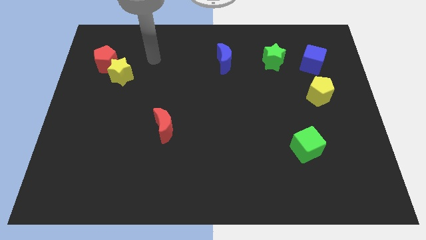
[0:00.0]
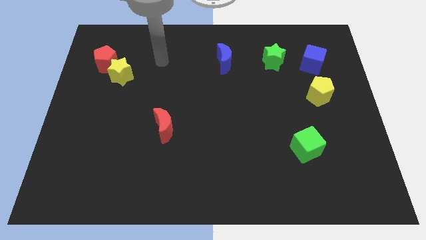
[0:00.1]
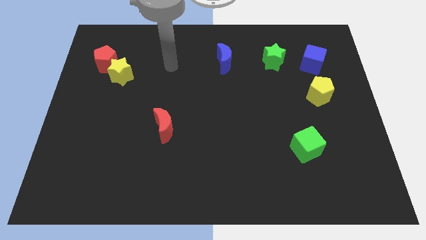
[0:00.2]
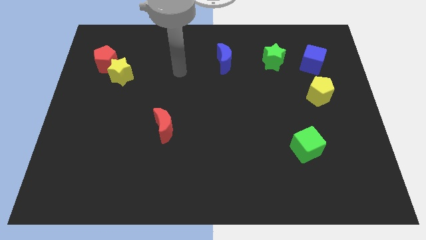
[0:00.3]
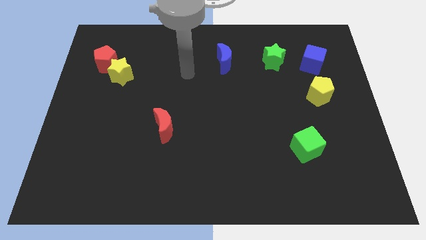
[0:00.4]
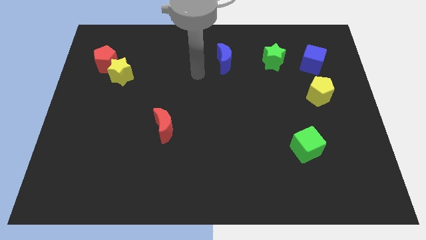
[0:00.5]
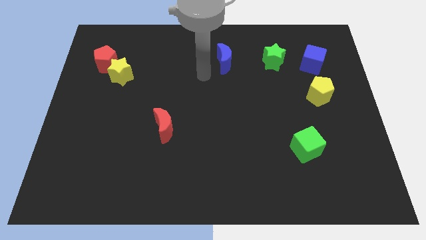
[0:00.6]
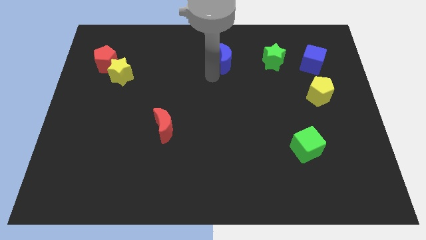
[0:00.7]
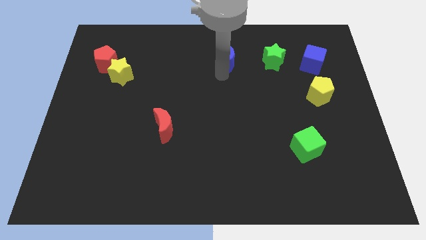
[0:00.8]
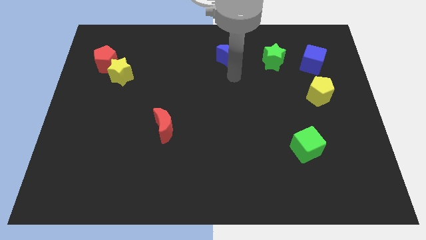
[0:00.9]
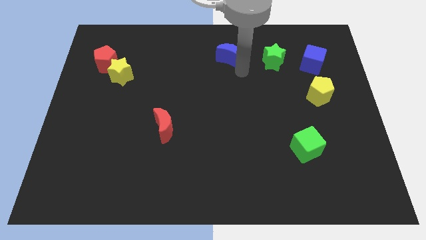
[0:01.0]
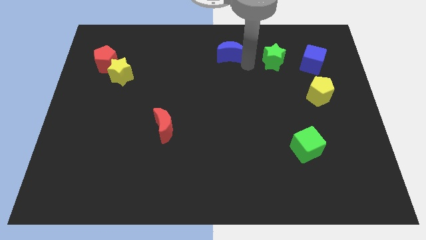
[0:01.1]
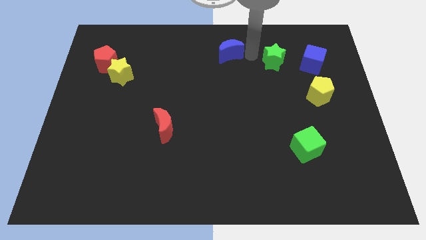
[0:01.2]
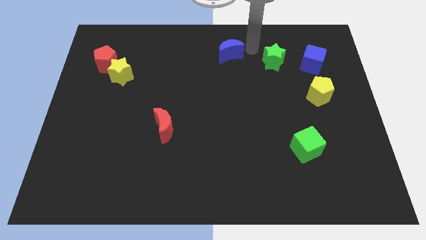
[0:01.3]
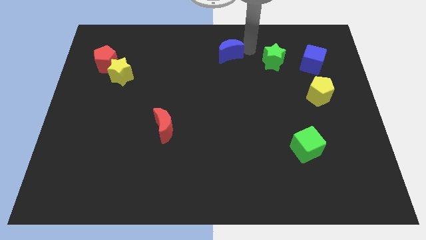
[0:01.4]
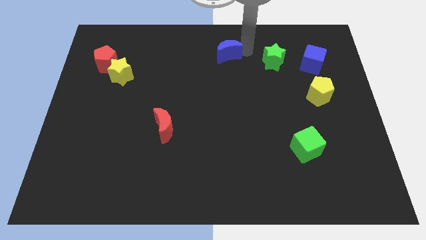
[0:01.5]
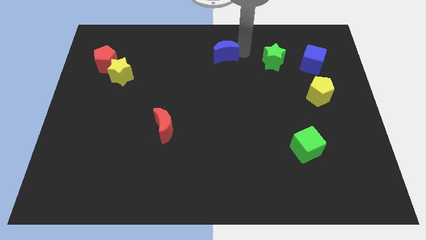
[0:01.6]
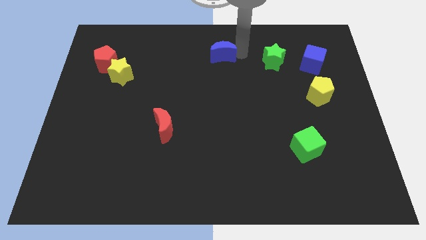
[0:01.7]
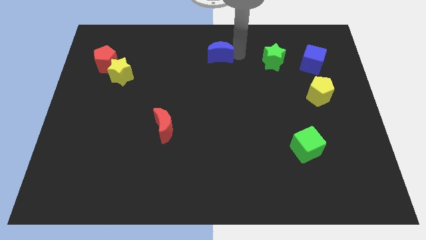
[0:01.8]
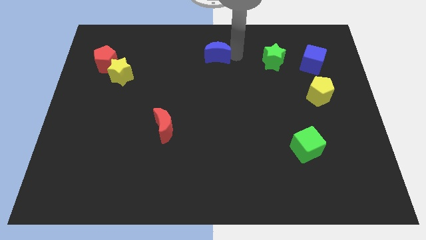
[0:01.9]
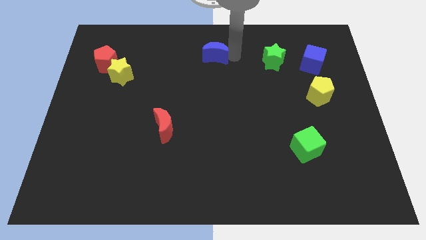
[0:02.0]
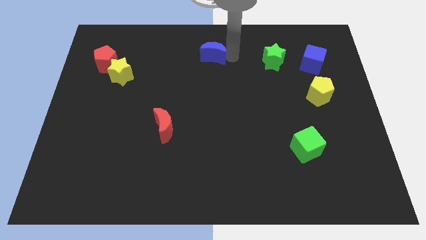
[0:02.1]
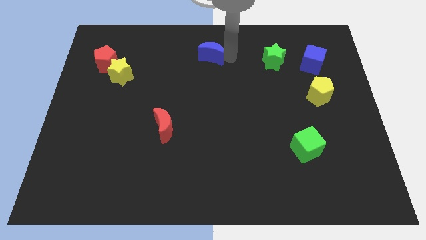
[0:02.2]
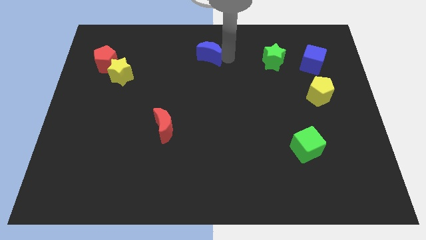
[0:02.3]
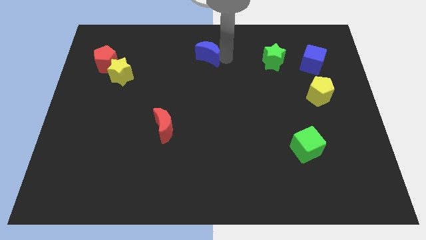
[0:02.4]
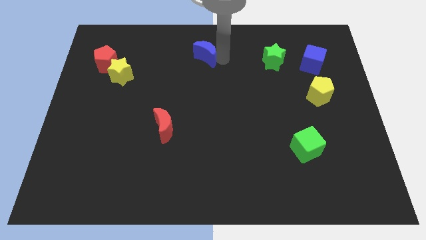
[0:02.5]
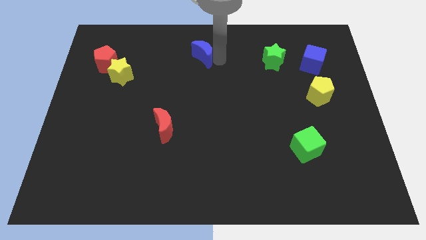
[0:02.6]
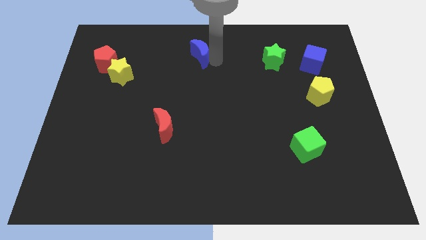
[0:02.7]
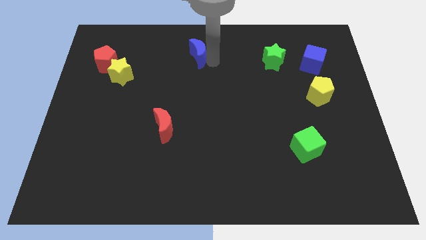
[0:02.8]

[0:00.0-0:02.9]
move the blue moon to the left a little

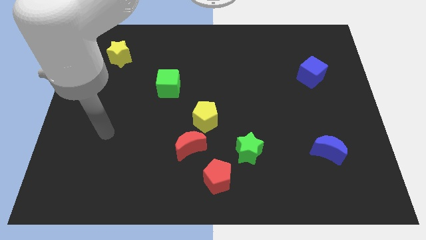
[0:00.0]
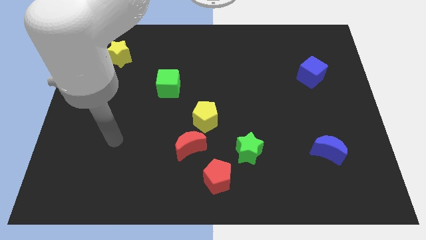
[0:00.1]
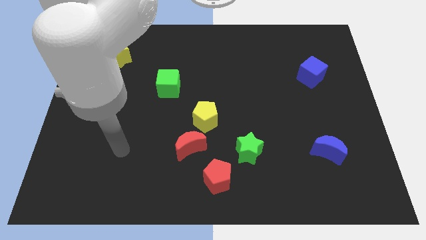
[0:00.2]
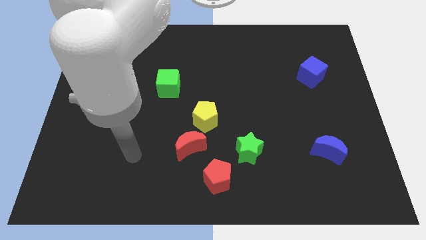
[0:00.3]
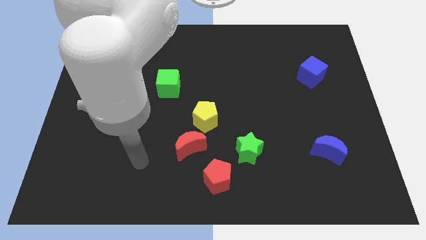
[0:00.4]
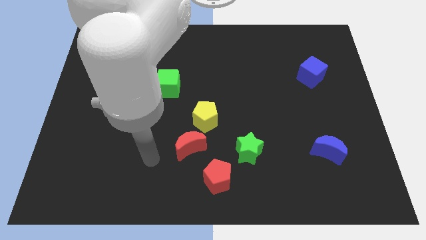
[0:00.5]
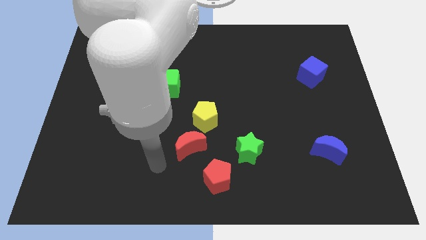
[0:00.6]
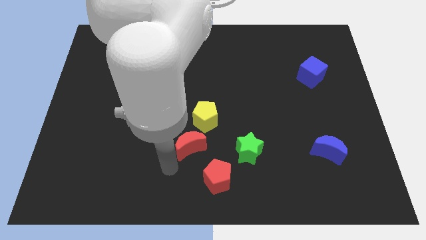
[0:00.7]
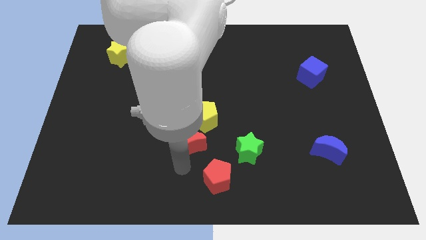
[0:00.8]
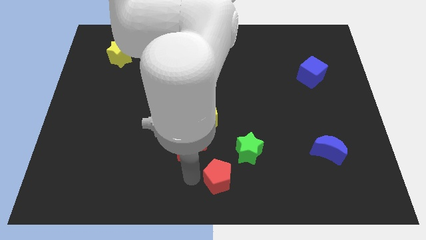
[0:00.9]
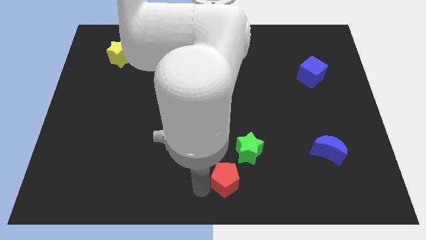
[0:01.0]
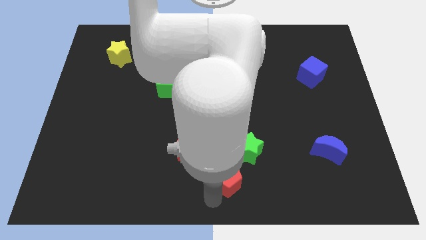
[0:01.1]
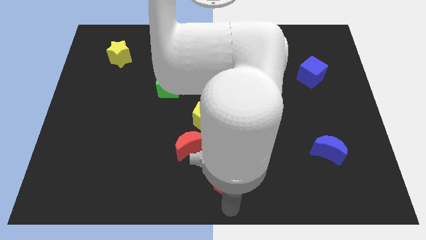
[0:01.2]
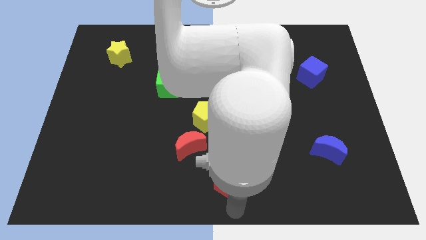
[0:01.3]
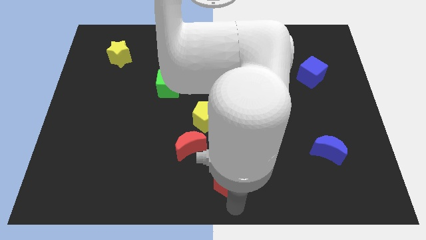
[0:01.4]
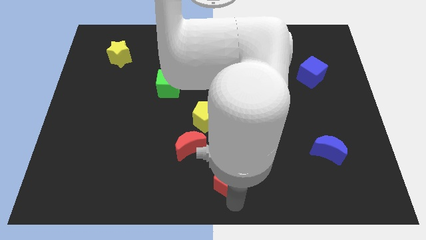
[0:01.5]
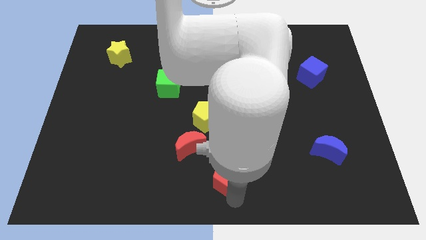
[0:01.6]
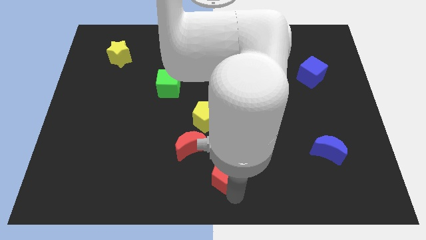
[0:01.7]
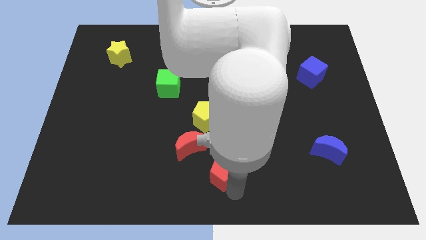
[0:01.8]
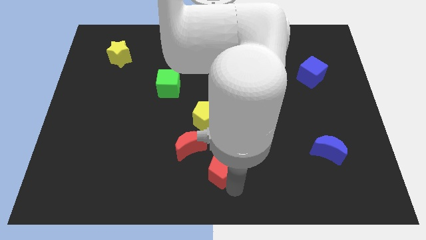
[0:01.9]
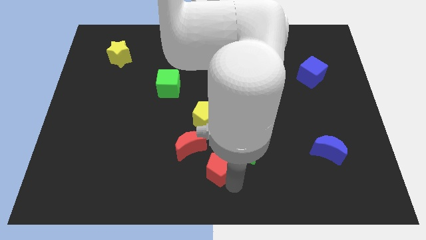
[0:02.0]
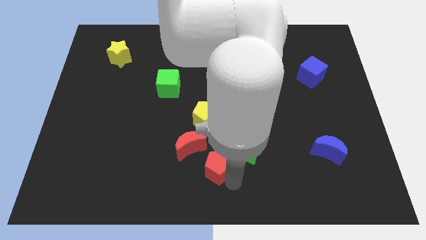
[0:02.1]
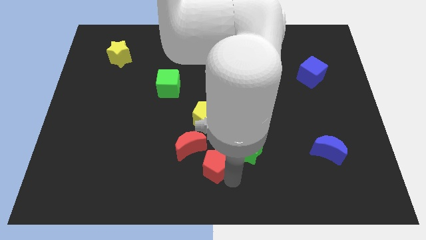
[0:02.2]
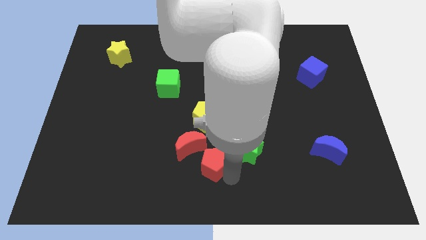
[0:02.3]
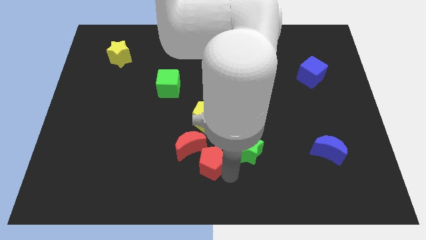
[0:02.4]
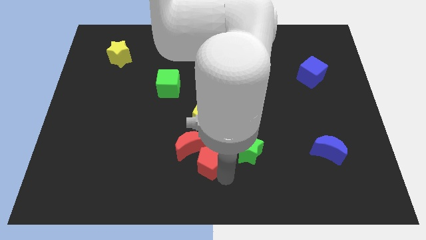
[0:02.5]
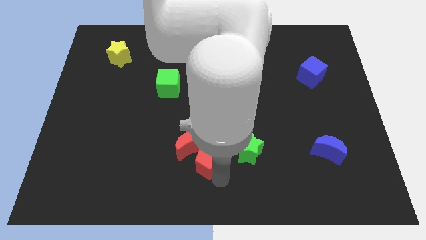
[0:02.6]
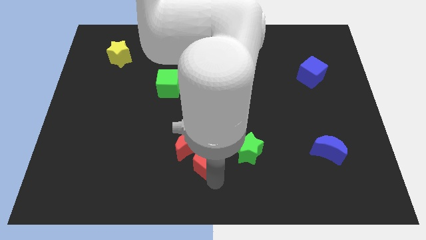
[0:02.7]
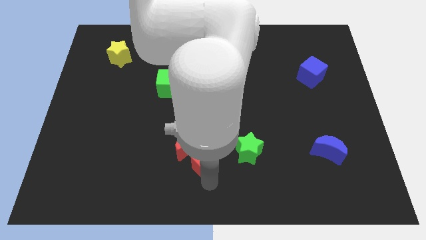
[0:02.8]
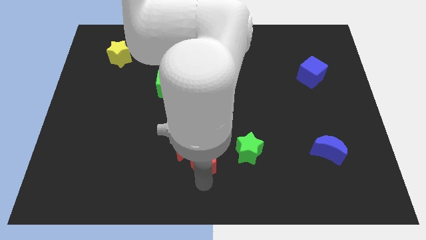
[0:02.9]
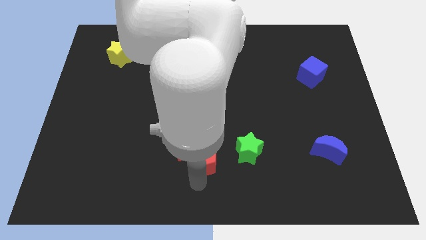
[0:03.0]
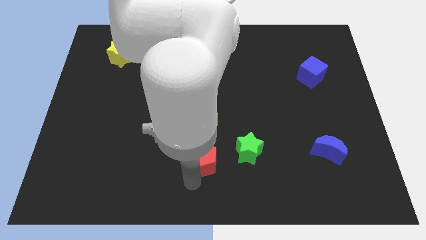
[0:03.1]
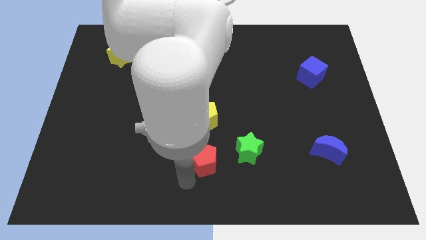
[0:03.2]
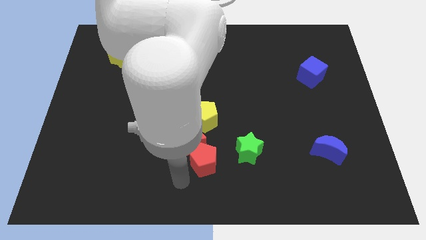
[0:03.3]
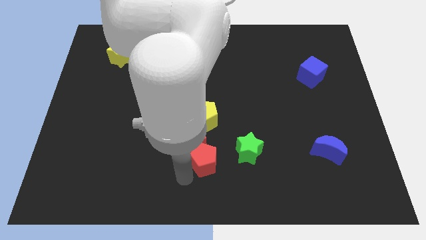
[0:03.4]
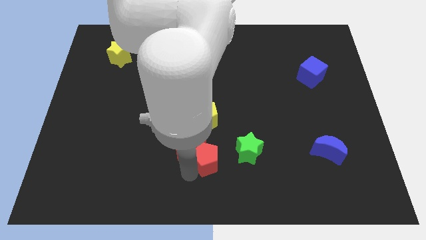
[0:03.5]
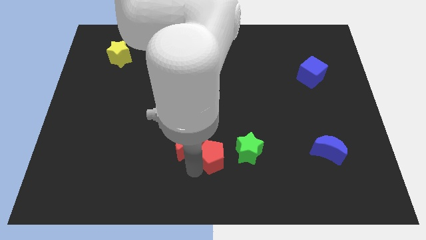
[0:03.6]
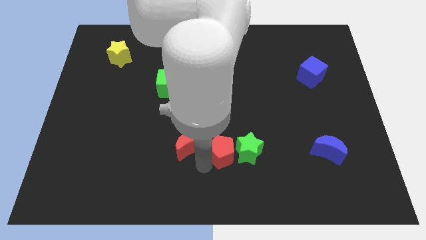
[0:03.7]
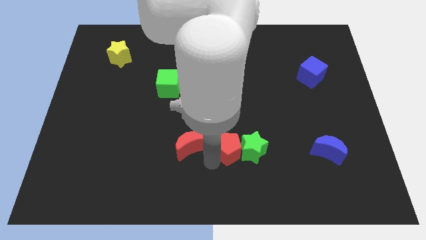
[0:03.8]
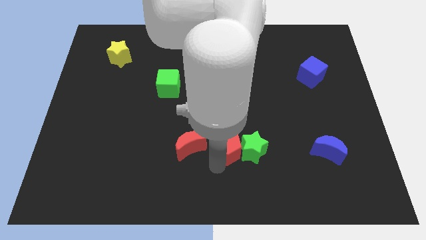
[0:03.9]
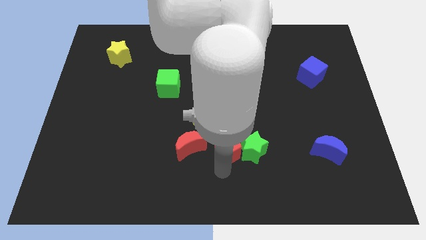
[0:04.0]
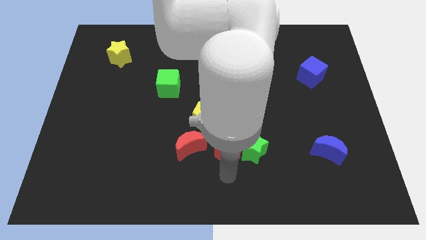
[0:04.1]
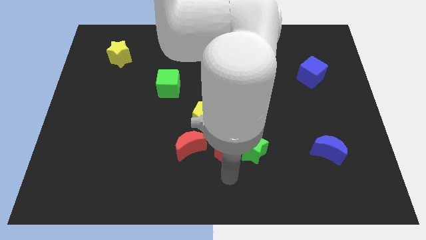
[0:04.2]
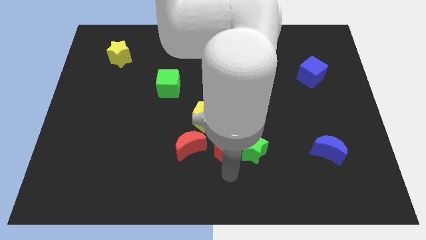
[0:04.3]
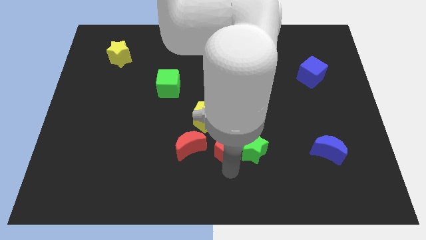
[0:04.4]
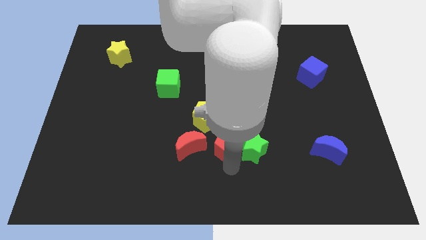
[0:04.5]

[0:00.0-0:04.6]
slide the red pentagon a bit upwards

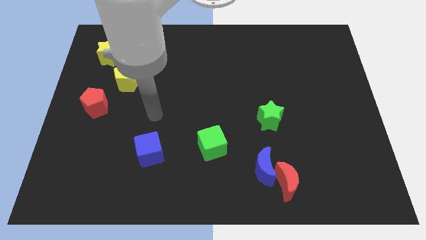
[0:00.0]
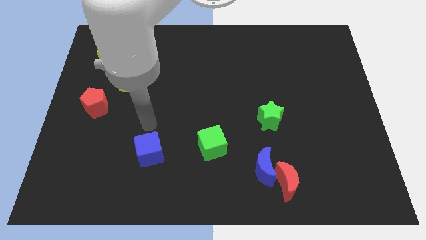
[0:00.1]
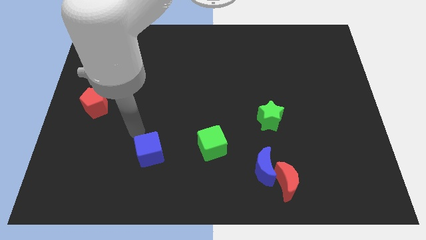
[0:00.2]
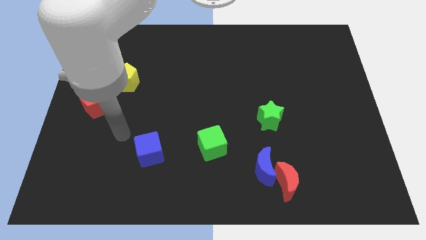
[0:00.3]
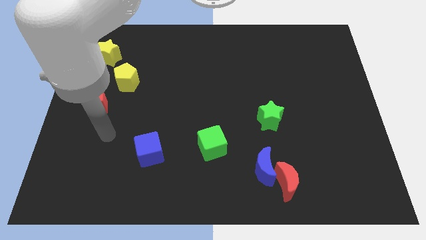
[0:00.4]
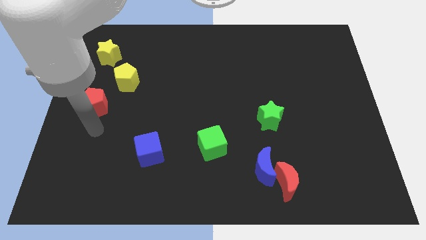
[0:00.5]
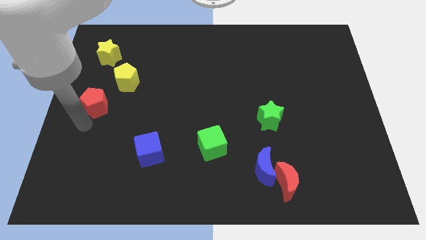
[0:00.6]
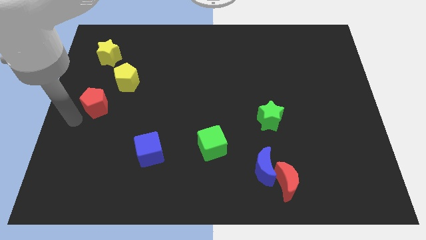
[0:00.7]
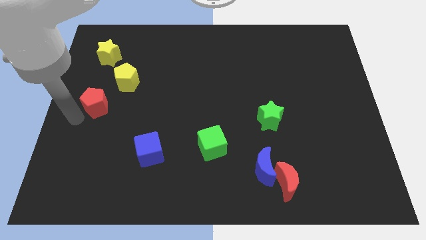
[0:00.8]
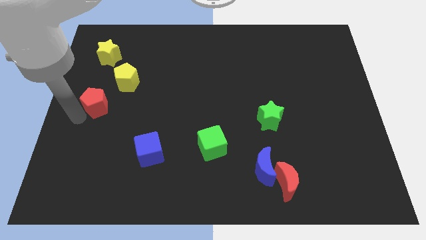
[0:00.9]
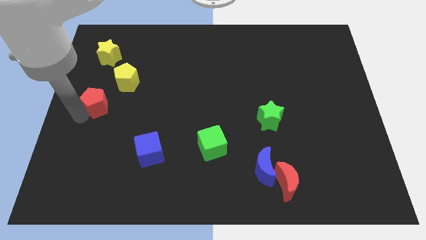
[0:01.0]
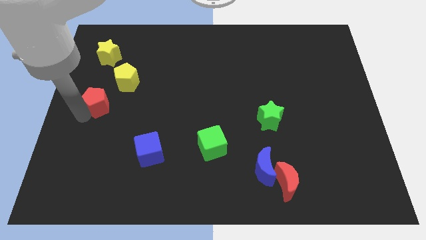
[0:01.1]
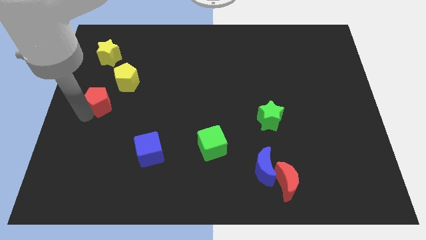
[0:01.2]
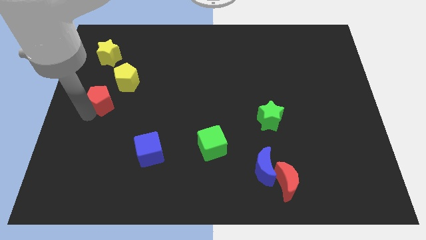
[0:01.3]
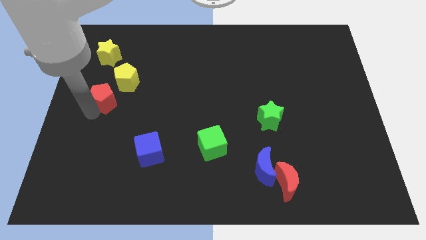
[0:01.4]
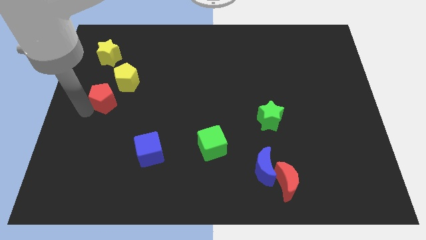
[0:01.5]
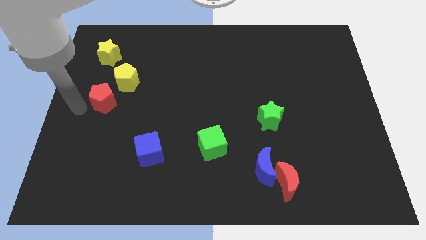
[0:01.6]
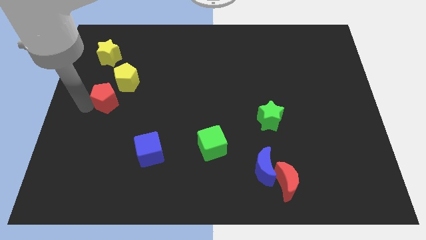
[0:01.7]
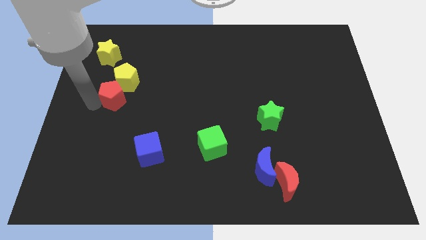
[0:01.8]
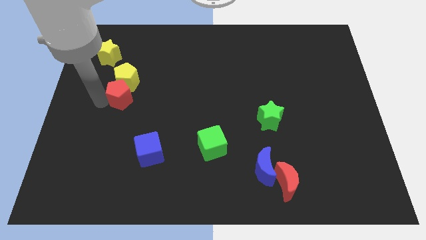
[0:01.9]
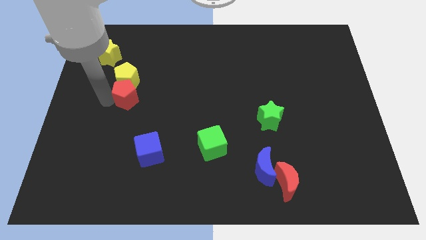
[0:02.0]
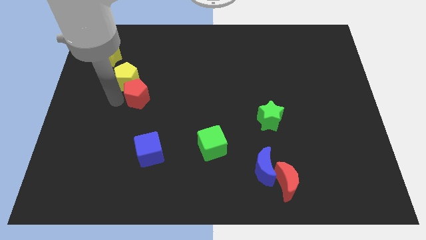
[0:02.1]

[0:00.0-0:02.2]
slightly move the red pentagon upwards and then right
